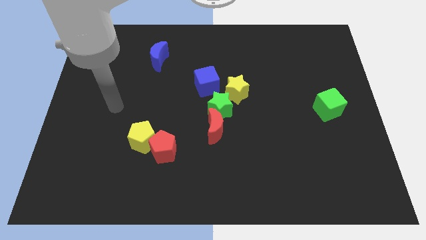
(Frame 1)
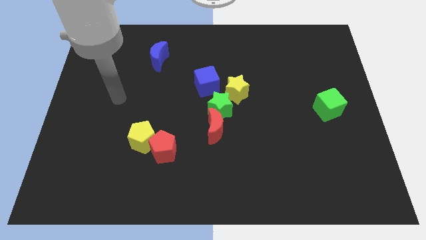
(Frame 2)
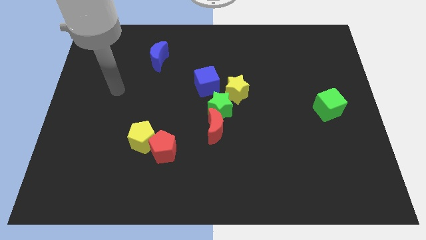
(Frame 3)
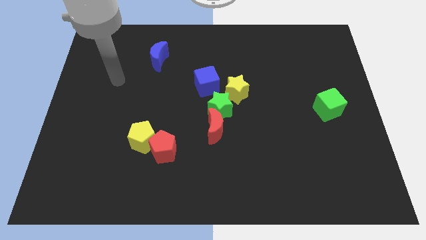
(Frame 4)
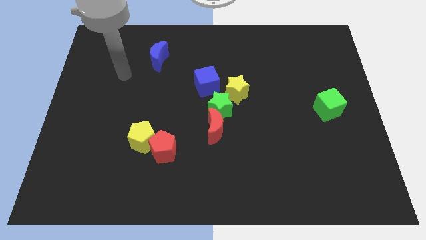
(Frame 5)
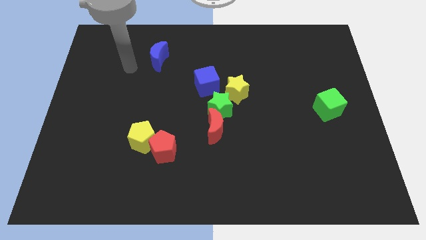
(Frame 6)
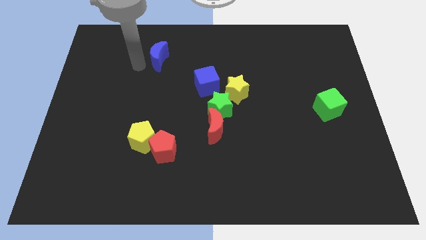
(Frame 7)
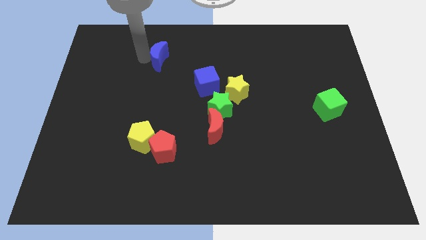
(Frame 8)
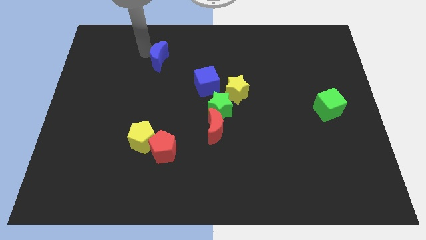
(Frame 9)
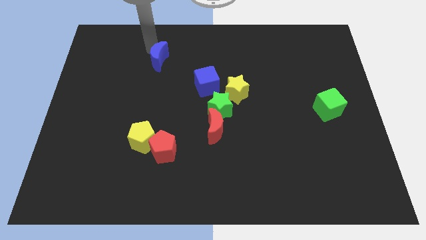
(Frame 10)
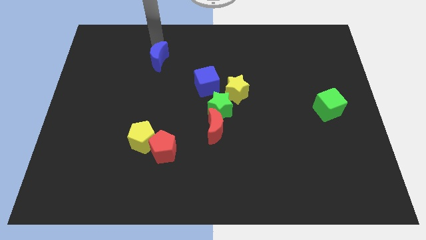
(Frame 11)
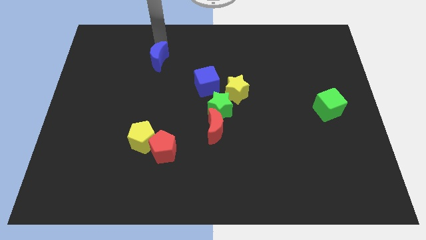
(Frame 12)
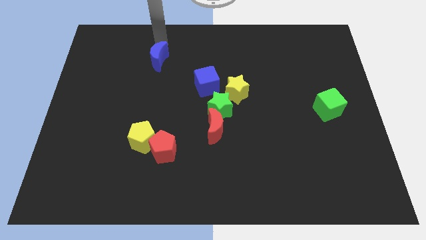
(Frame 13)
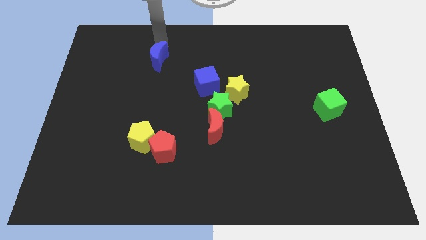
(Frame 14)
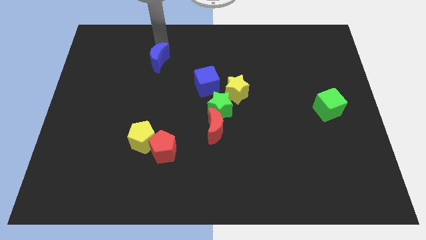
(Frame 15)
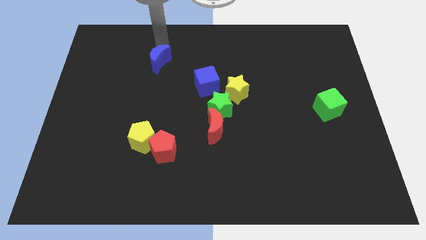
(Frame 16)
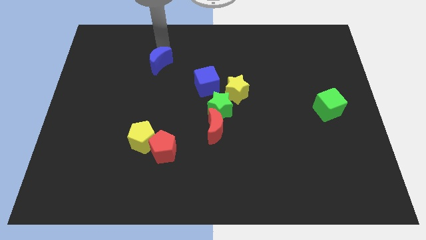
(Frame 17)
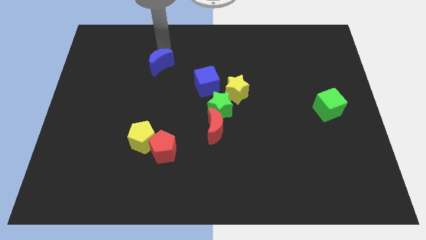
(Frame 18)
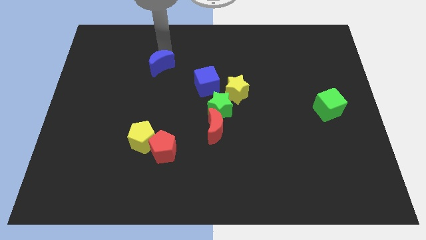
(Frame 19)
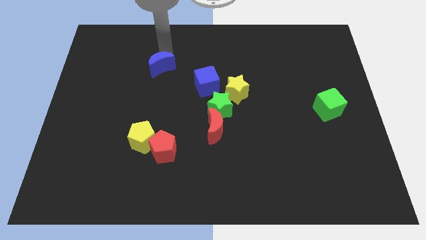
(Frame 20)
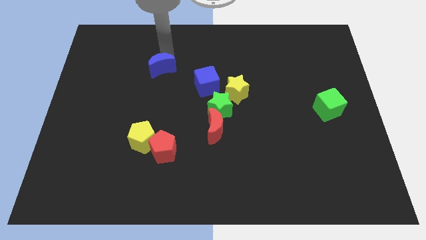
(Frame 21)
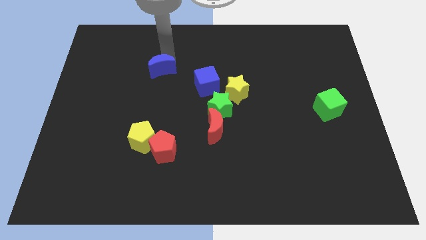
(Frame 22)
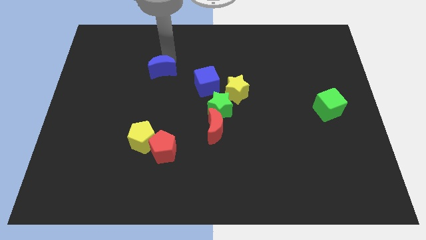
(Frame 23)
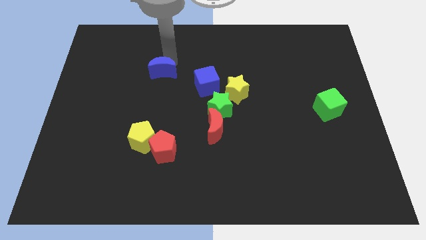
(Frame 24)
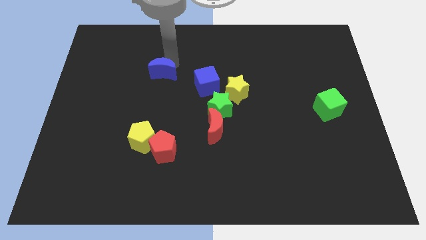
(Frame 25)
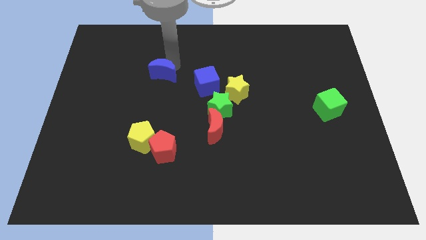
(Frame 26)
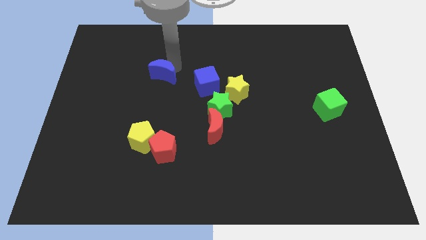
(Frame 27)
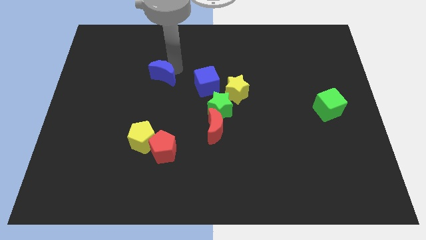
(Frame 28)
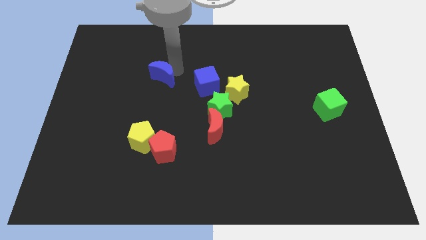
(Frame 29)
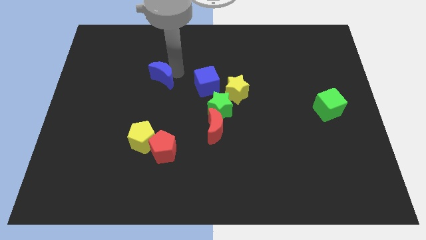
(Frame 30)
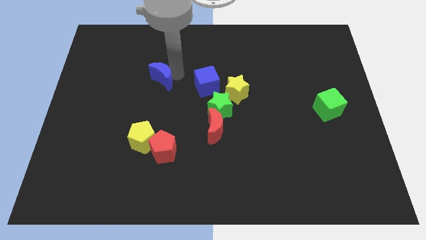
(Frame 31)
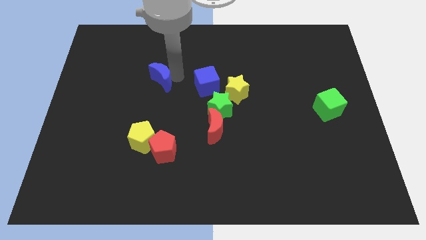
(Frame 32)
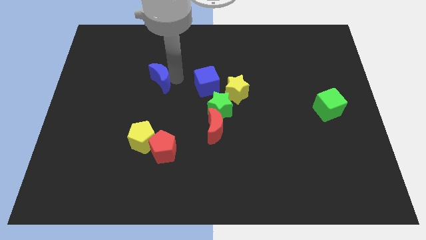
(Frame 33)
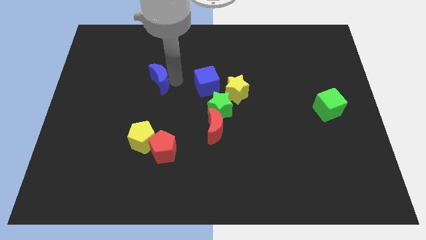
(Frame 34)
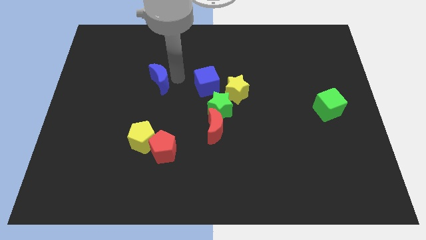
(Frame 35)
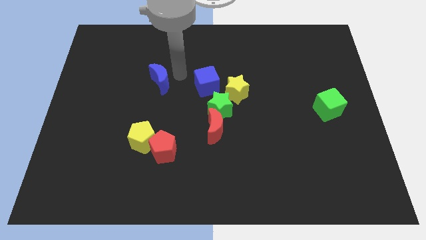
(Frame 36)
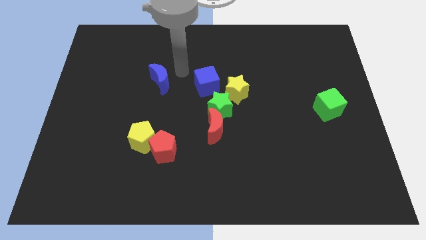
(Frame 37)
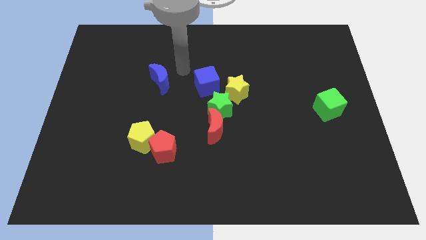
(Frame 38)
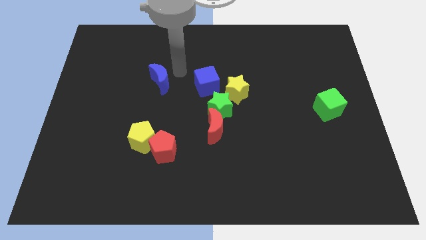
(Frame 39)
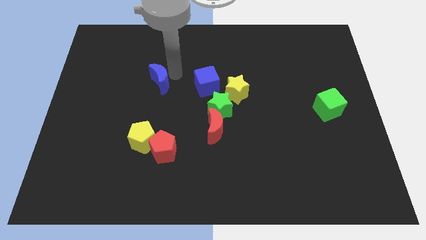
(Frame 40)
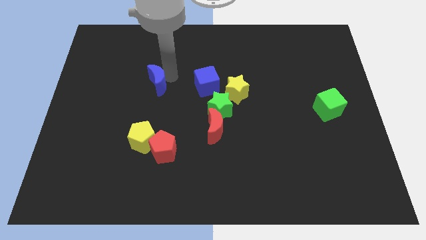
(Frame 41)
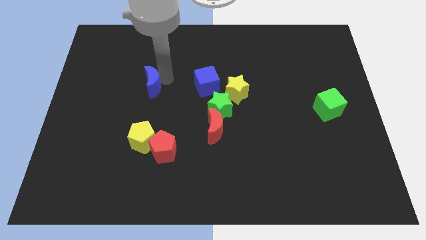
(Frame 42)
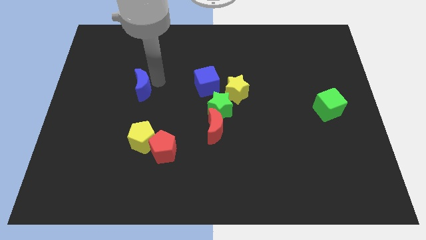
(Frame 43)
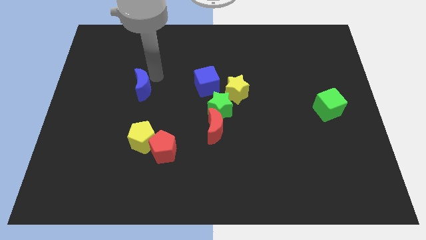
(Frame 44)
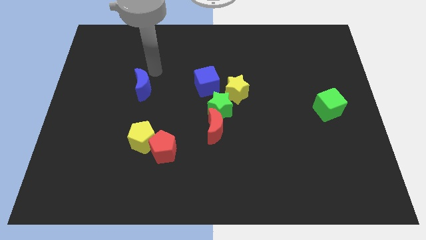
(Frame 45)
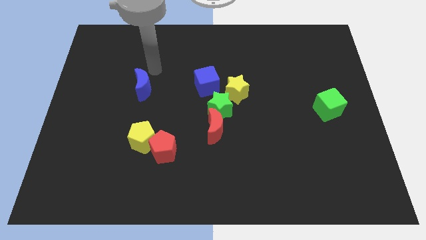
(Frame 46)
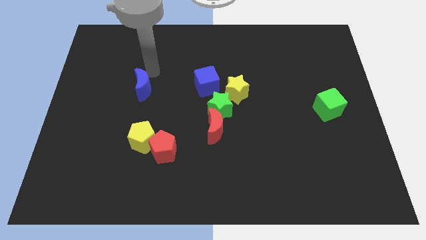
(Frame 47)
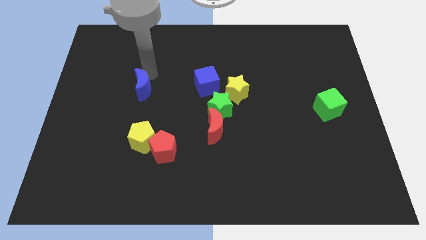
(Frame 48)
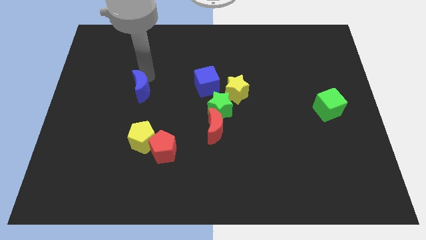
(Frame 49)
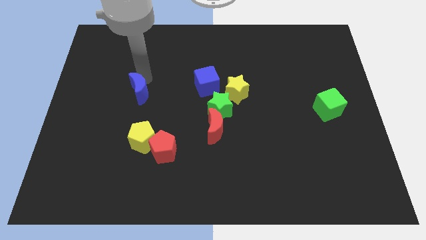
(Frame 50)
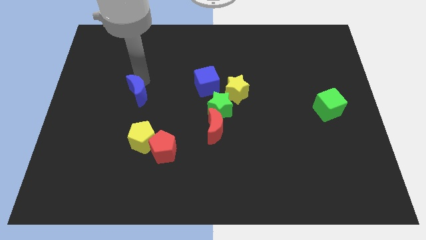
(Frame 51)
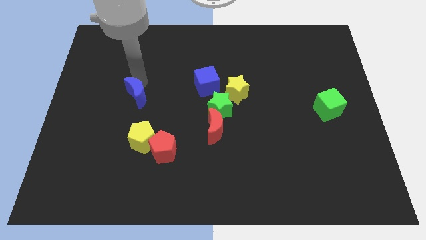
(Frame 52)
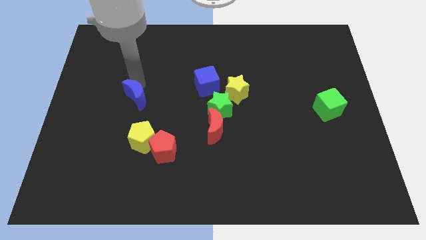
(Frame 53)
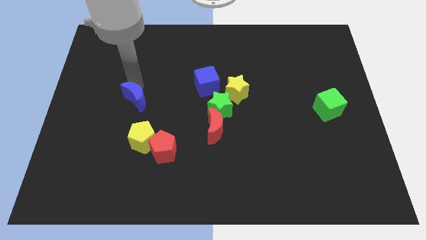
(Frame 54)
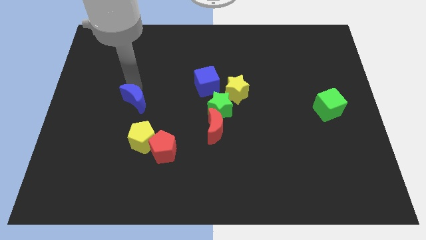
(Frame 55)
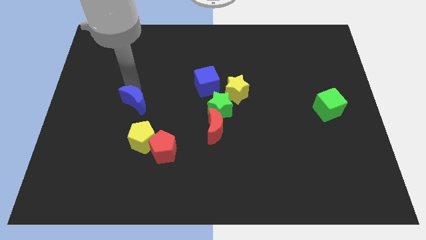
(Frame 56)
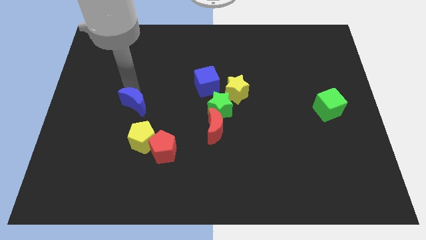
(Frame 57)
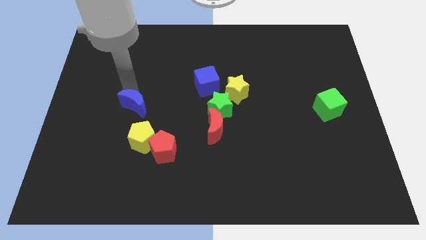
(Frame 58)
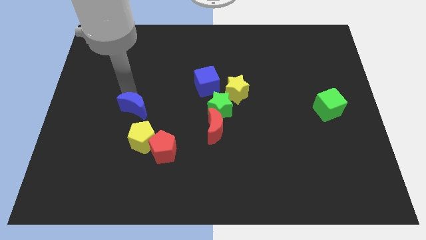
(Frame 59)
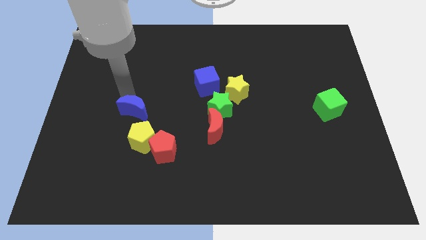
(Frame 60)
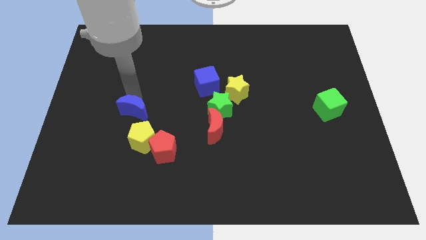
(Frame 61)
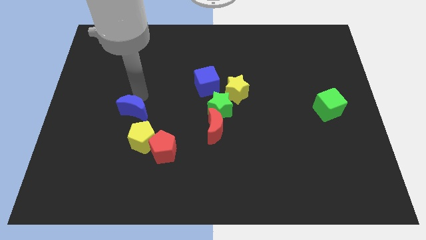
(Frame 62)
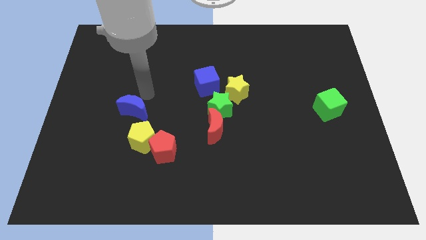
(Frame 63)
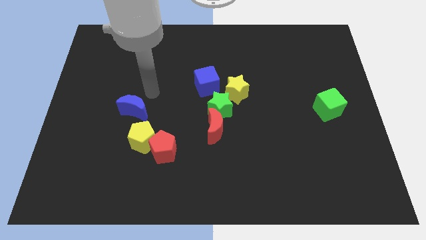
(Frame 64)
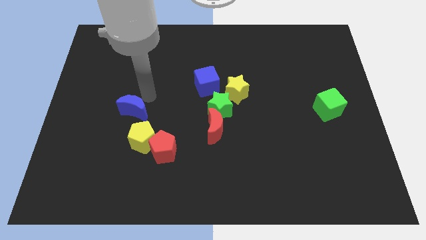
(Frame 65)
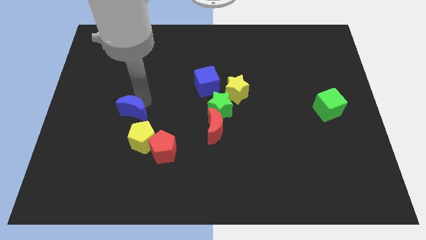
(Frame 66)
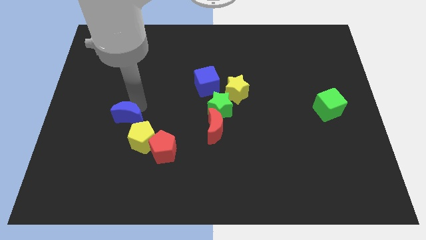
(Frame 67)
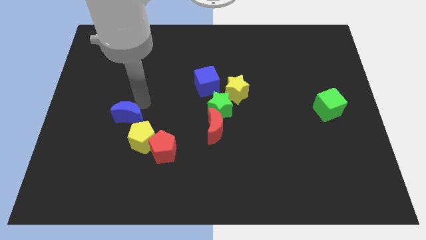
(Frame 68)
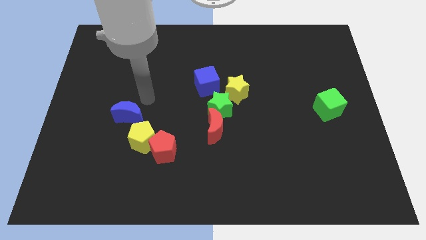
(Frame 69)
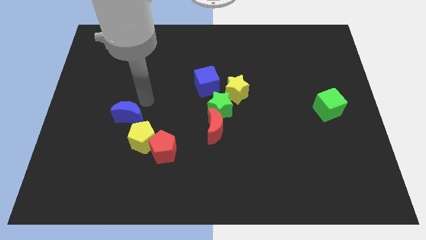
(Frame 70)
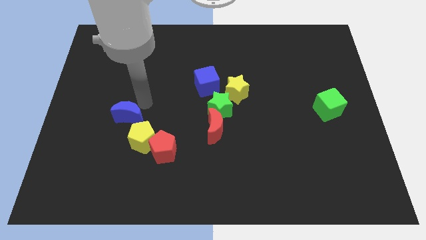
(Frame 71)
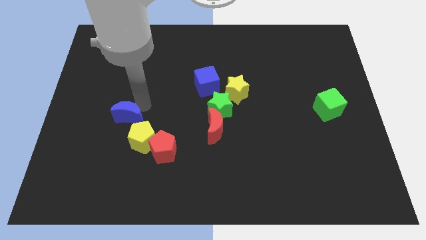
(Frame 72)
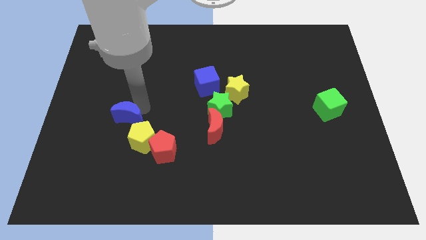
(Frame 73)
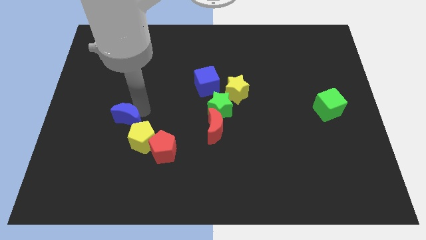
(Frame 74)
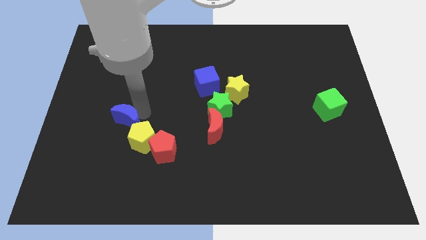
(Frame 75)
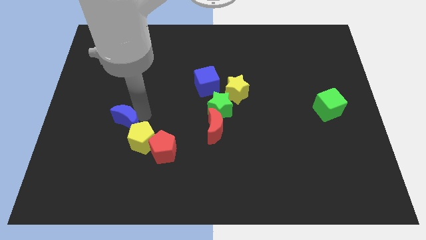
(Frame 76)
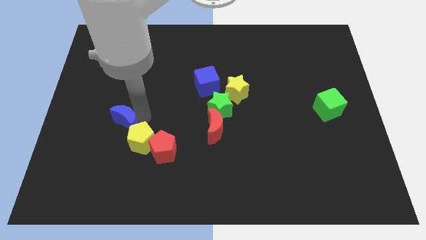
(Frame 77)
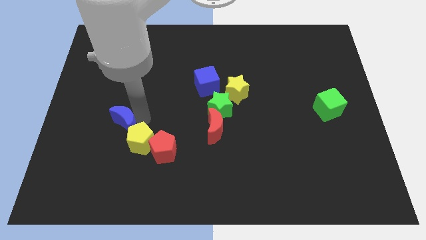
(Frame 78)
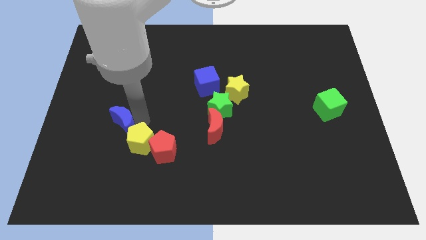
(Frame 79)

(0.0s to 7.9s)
move the blue moon downwards
